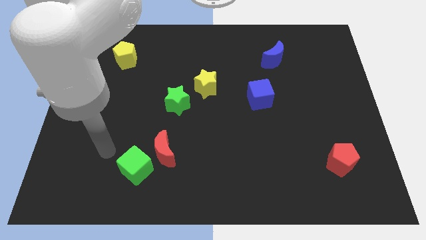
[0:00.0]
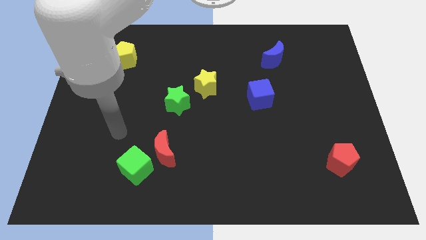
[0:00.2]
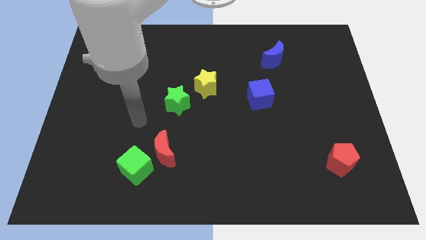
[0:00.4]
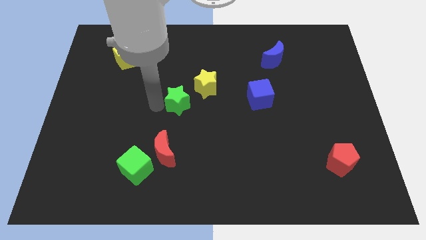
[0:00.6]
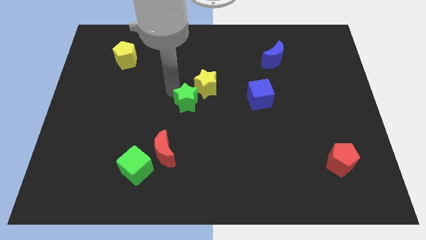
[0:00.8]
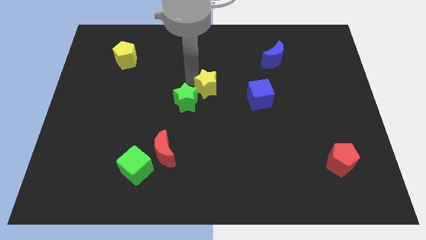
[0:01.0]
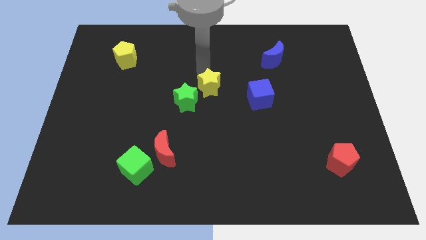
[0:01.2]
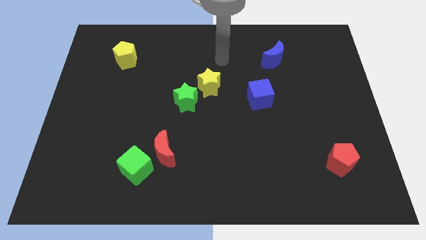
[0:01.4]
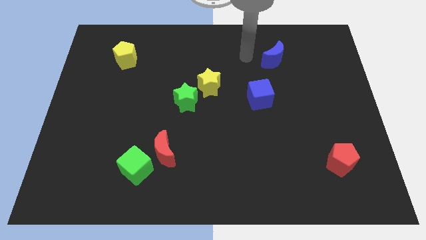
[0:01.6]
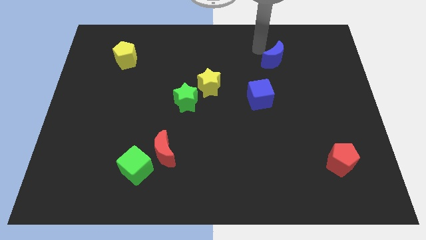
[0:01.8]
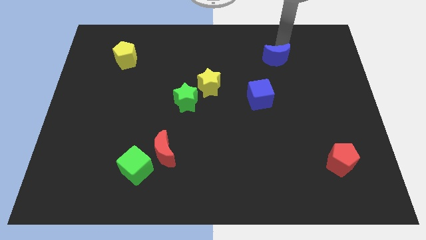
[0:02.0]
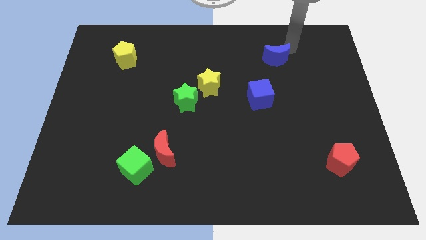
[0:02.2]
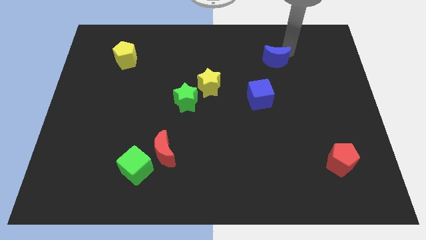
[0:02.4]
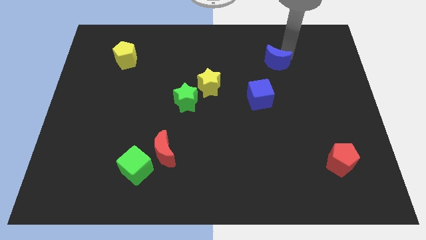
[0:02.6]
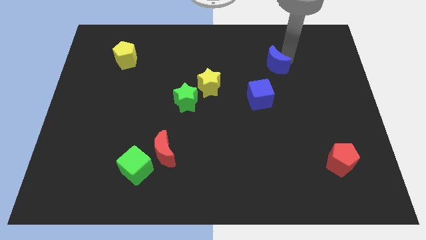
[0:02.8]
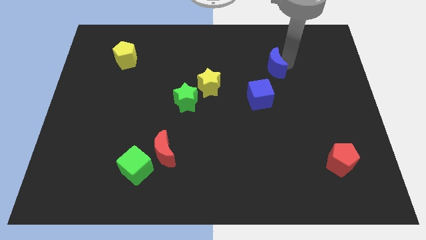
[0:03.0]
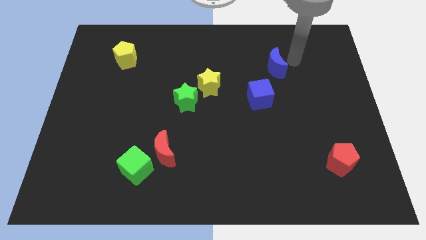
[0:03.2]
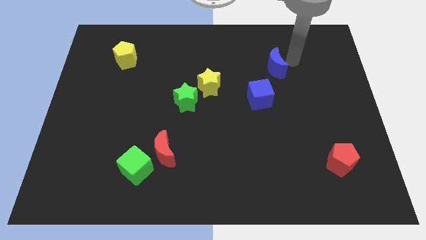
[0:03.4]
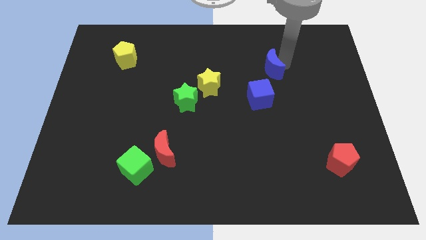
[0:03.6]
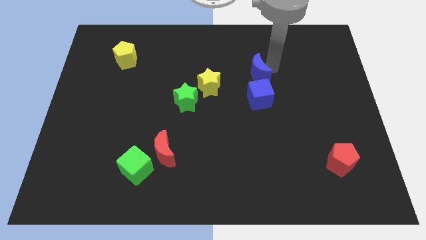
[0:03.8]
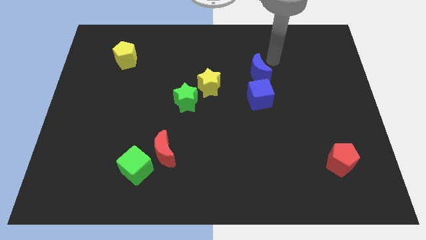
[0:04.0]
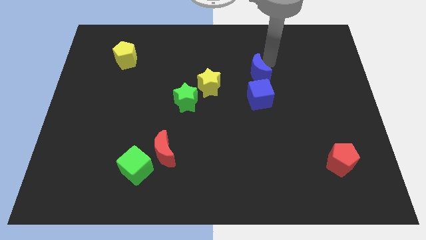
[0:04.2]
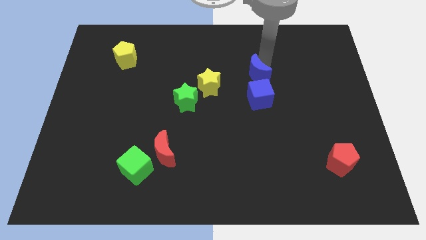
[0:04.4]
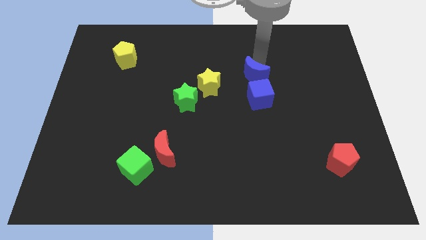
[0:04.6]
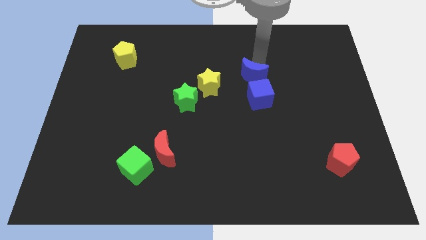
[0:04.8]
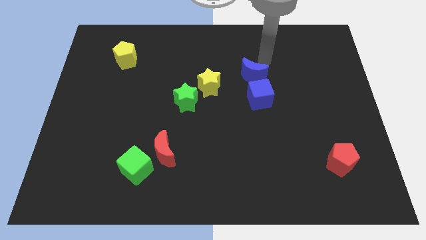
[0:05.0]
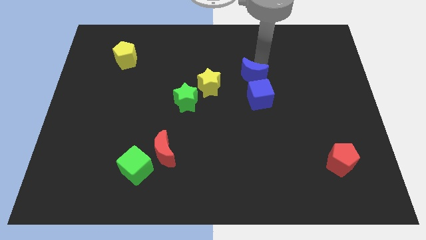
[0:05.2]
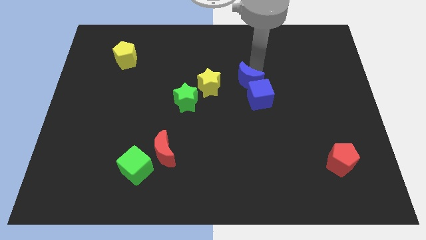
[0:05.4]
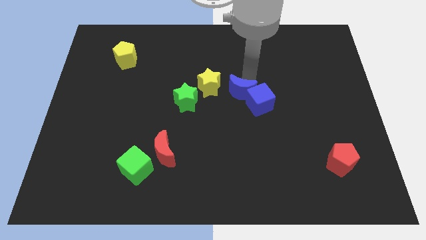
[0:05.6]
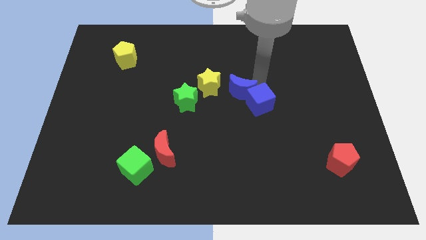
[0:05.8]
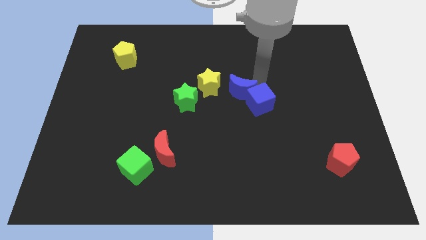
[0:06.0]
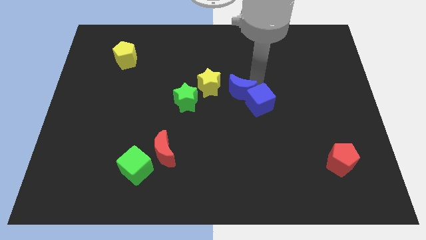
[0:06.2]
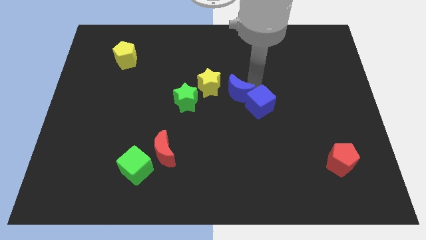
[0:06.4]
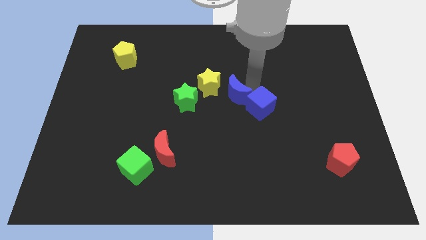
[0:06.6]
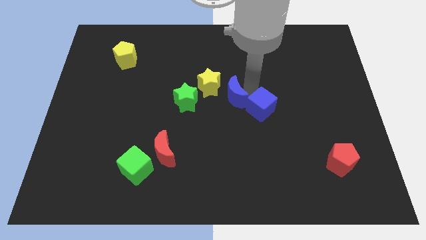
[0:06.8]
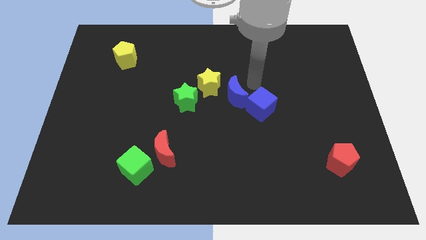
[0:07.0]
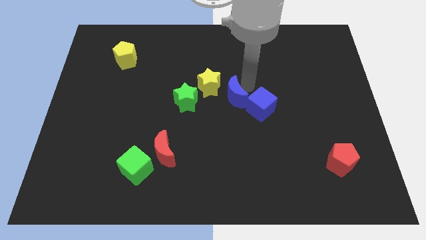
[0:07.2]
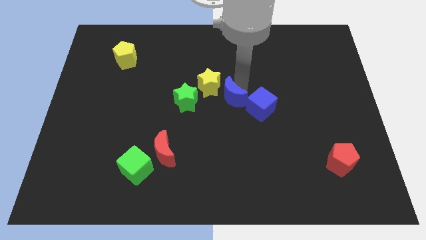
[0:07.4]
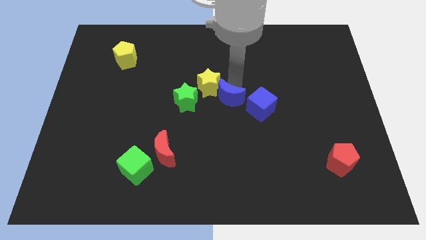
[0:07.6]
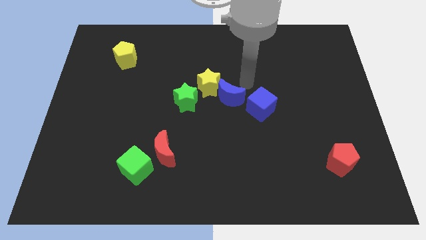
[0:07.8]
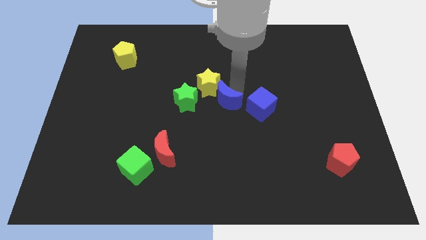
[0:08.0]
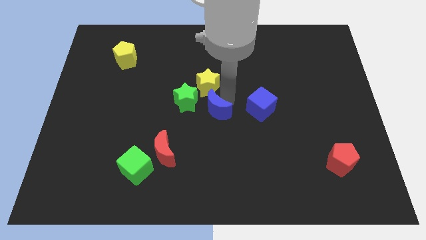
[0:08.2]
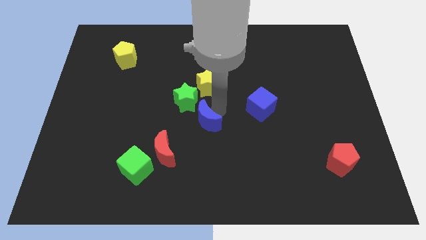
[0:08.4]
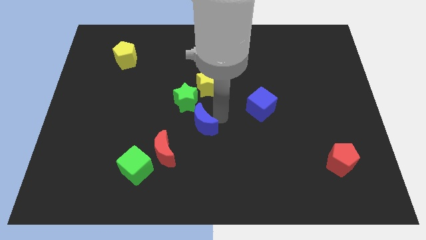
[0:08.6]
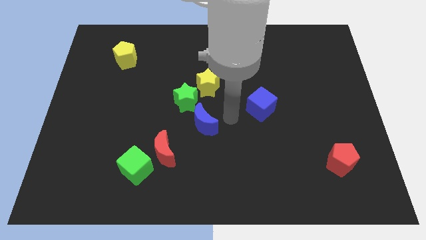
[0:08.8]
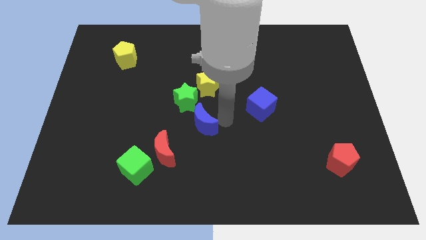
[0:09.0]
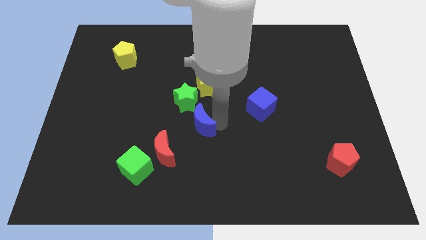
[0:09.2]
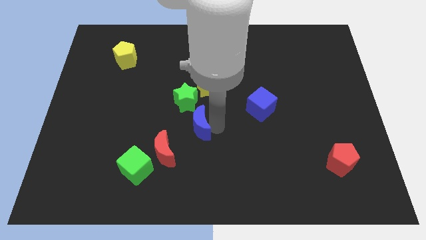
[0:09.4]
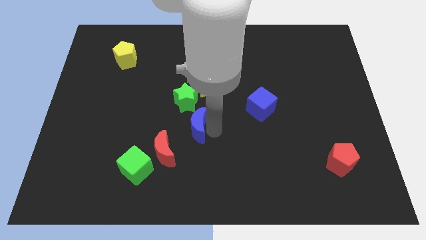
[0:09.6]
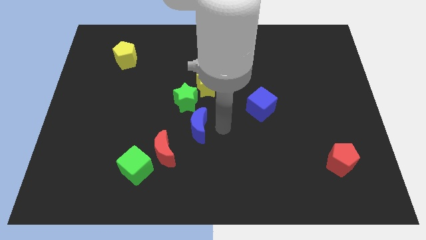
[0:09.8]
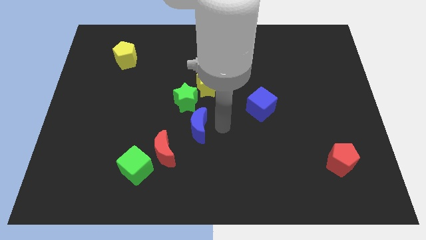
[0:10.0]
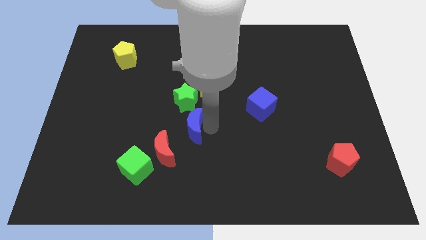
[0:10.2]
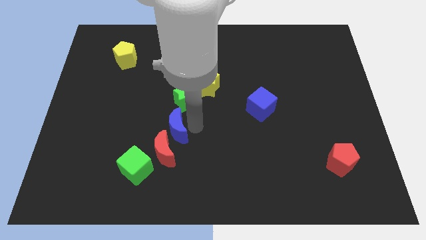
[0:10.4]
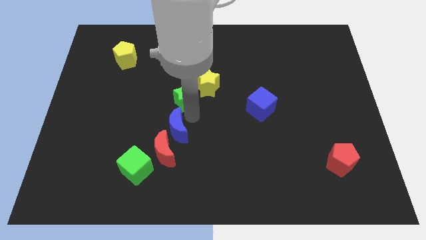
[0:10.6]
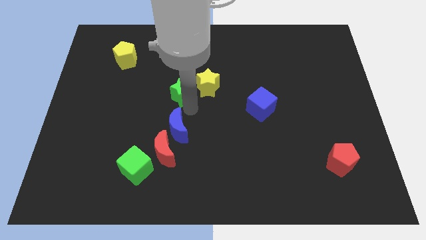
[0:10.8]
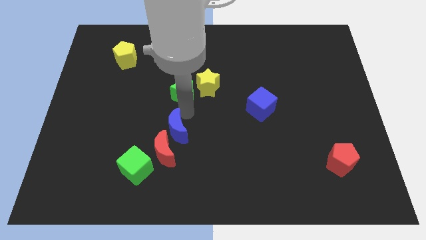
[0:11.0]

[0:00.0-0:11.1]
slide the blue moon close to the red moon

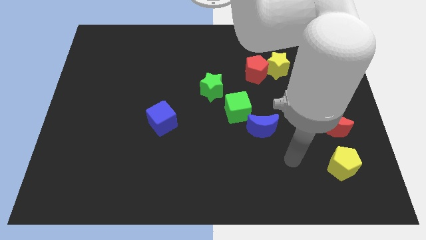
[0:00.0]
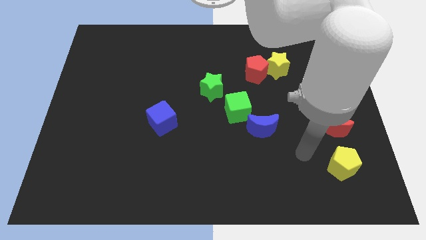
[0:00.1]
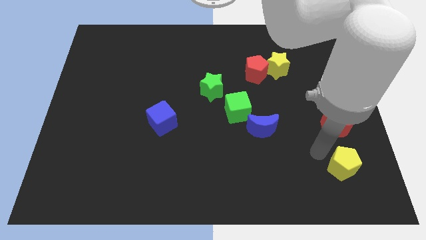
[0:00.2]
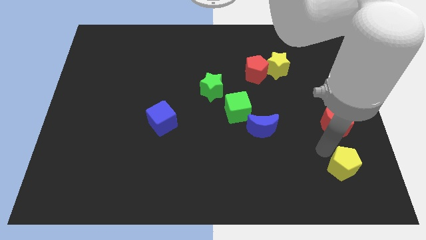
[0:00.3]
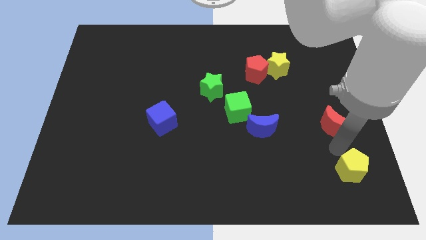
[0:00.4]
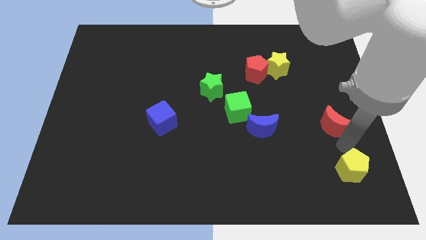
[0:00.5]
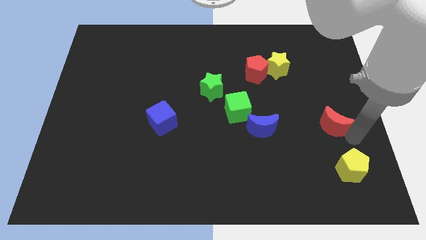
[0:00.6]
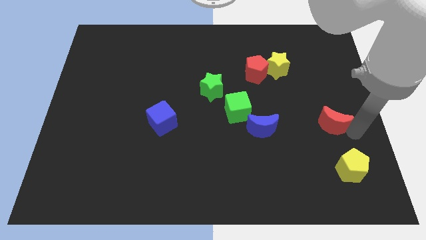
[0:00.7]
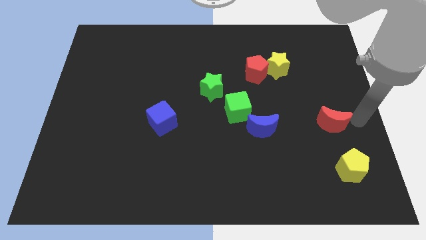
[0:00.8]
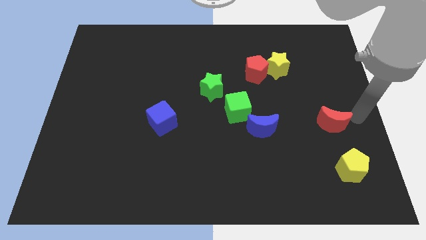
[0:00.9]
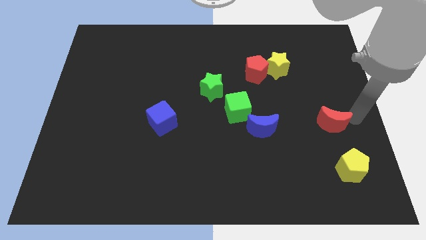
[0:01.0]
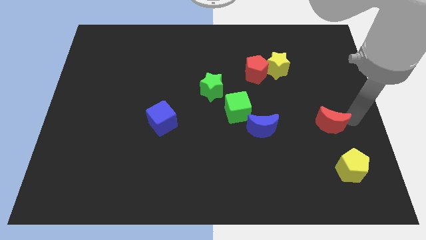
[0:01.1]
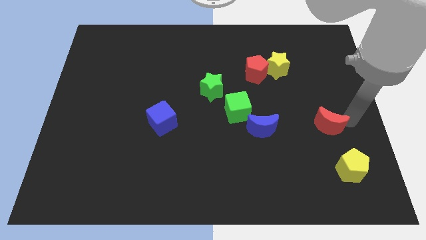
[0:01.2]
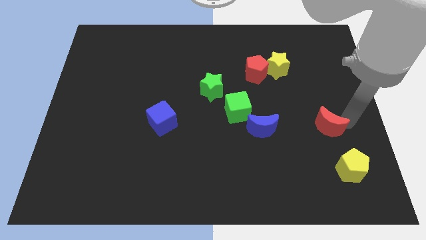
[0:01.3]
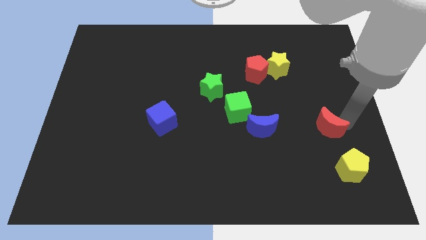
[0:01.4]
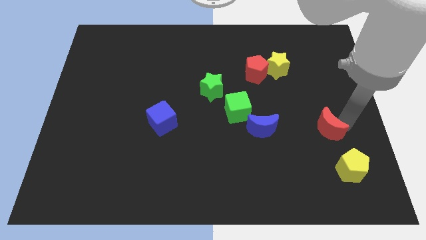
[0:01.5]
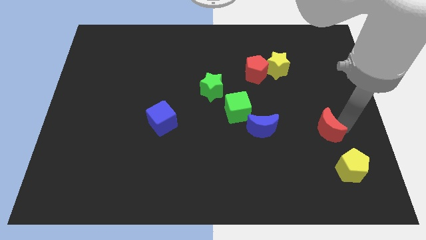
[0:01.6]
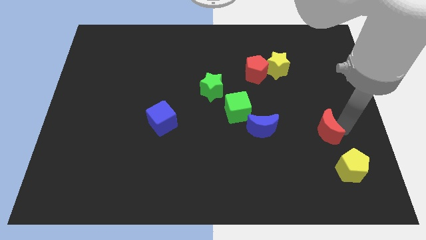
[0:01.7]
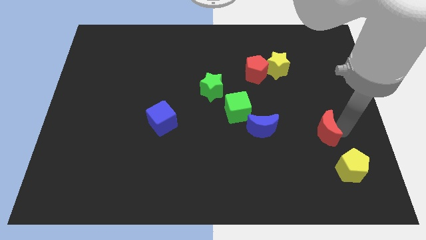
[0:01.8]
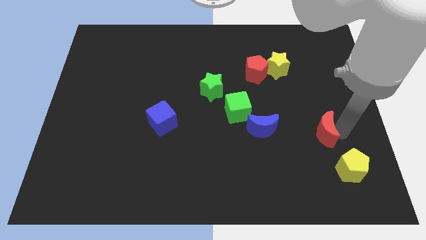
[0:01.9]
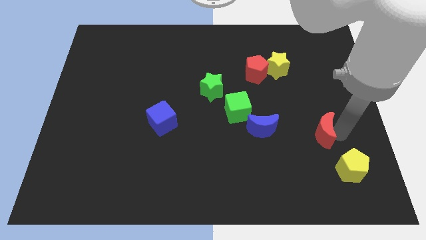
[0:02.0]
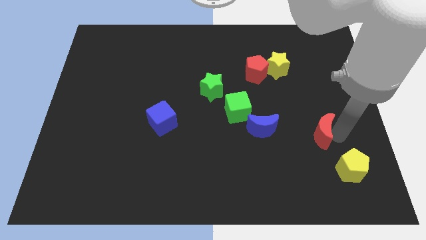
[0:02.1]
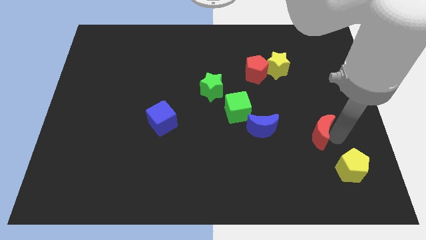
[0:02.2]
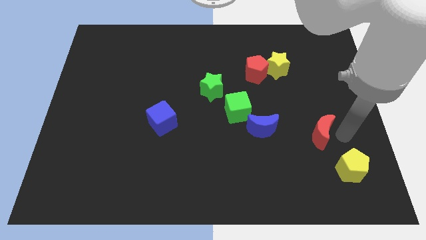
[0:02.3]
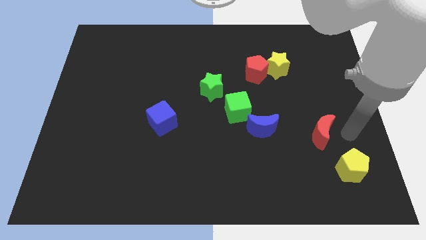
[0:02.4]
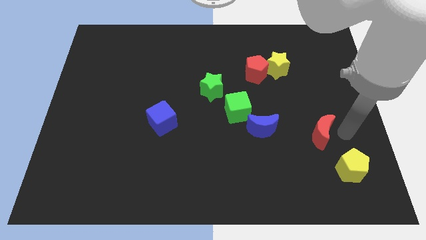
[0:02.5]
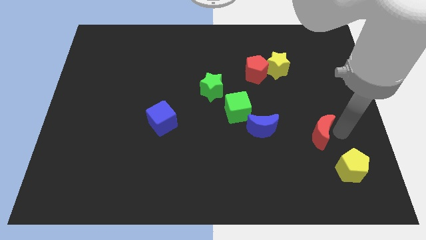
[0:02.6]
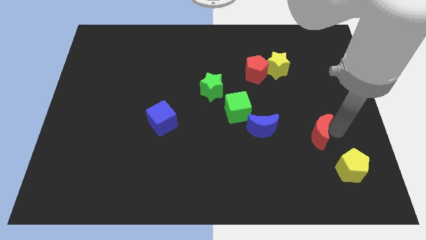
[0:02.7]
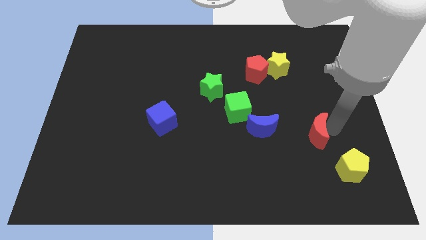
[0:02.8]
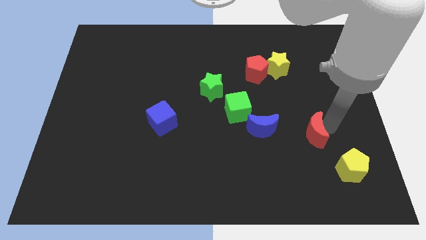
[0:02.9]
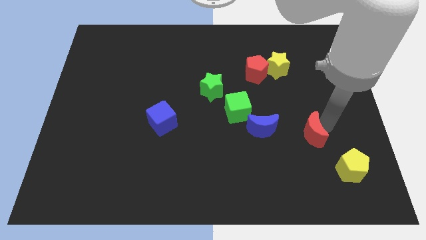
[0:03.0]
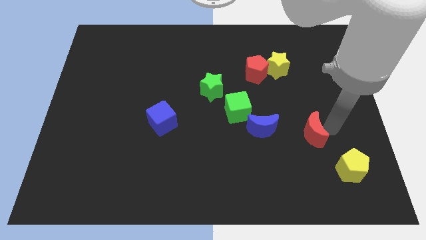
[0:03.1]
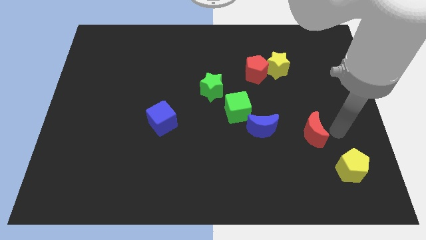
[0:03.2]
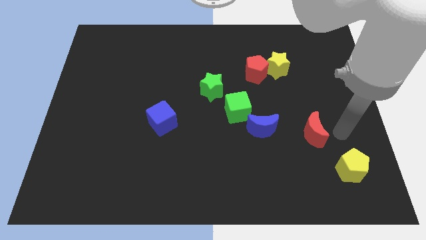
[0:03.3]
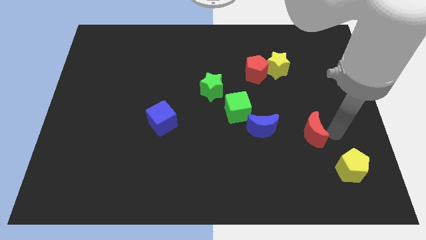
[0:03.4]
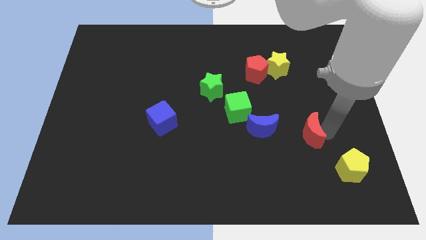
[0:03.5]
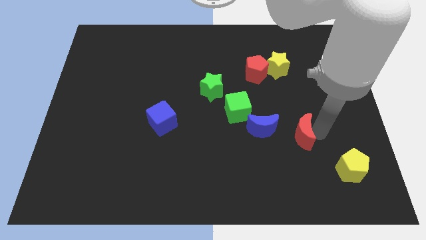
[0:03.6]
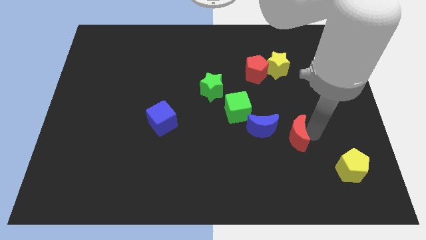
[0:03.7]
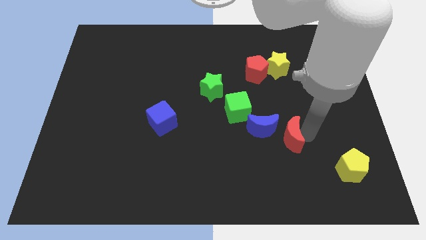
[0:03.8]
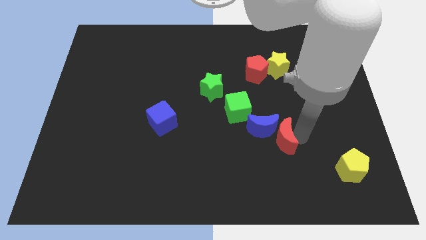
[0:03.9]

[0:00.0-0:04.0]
put the red moon close to the blue moon
